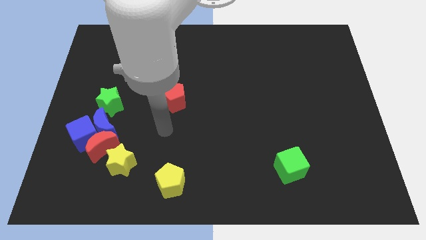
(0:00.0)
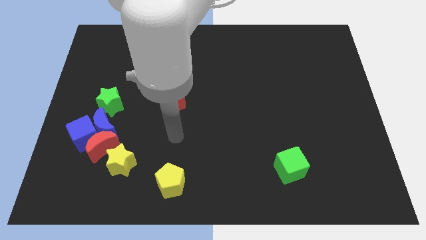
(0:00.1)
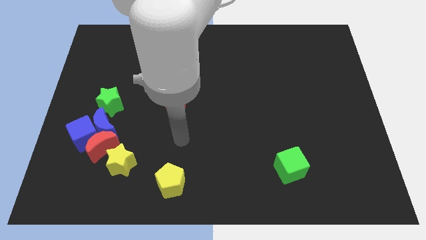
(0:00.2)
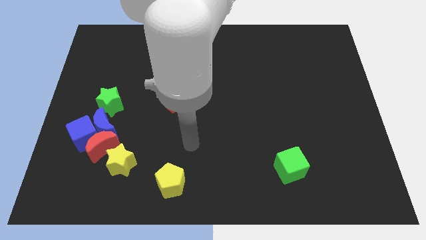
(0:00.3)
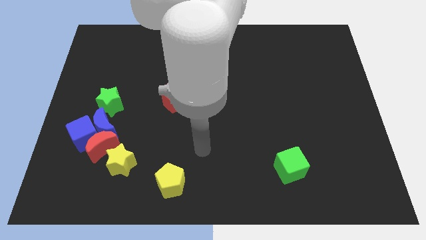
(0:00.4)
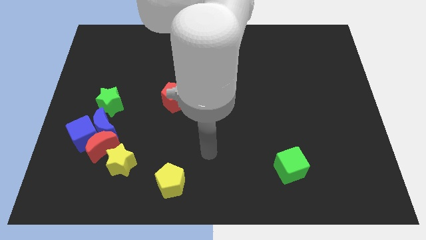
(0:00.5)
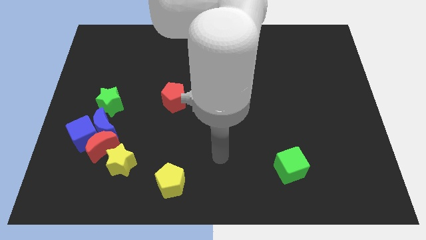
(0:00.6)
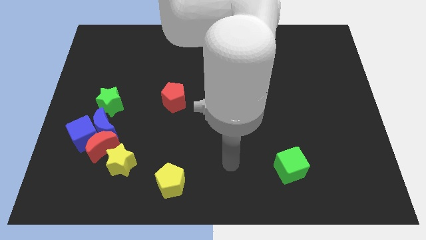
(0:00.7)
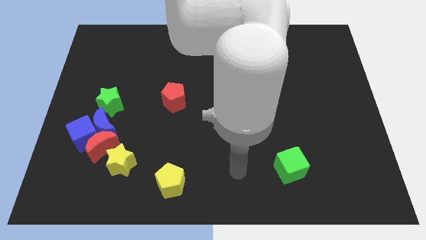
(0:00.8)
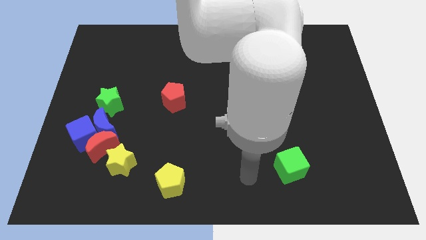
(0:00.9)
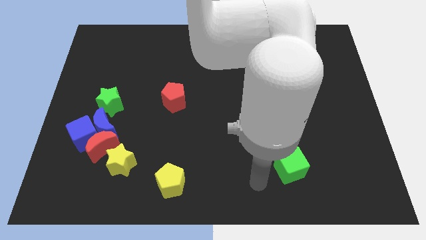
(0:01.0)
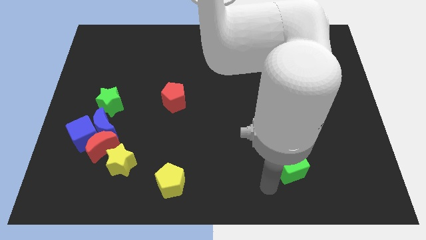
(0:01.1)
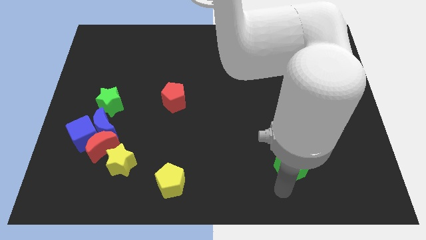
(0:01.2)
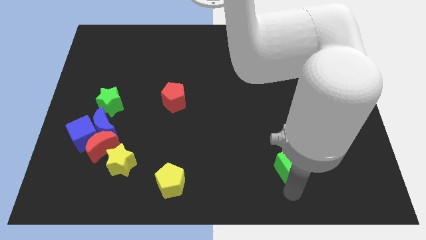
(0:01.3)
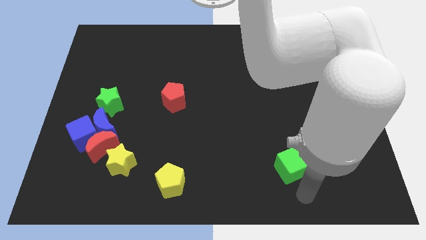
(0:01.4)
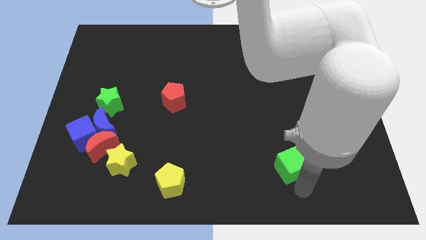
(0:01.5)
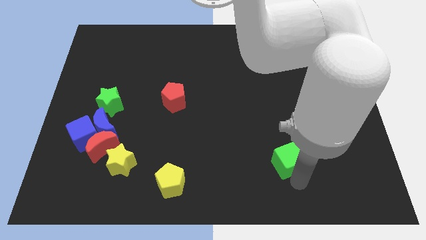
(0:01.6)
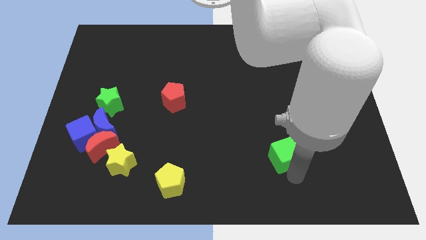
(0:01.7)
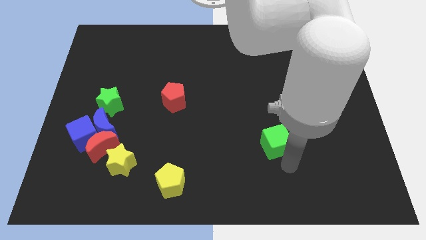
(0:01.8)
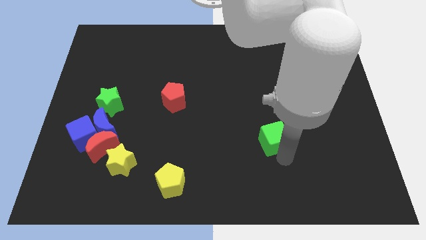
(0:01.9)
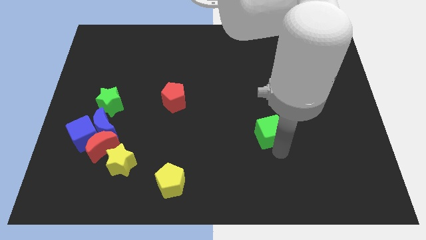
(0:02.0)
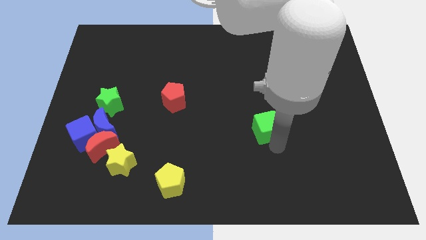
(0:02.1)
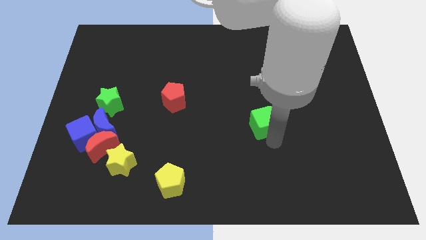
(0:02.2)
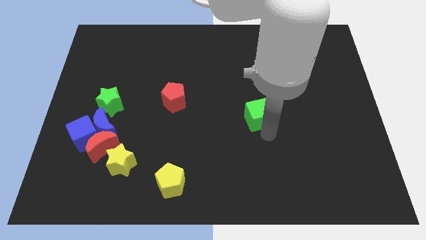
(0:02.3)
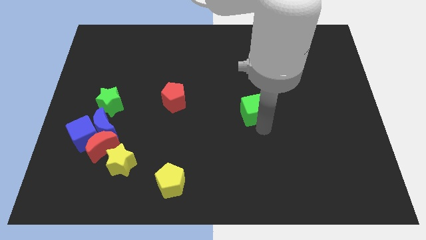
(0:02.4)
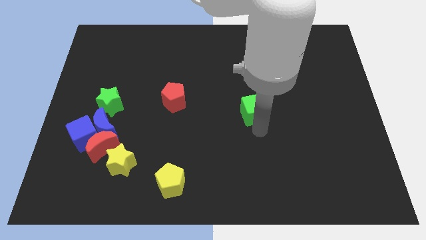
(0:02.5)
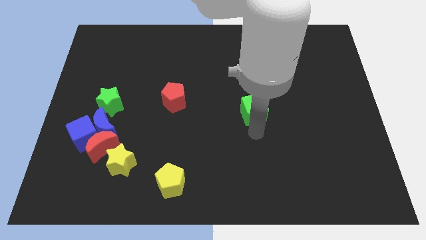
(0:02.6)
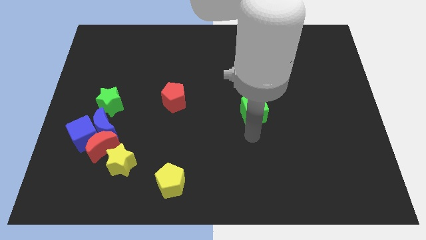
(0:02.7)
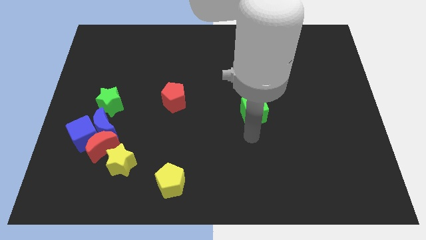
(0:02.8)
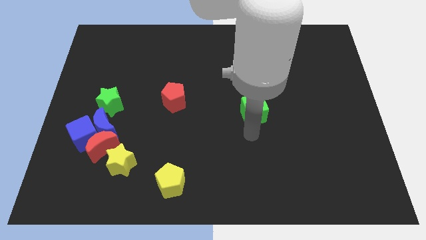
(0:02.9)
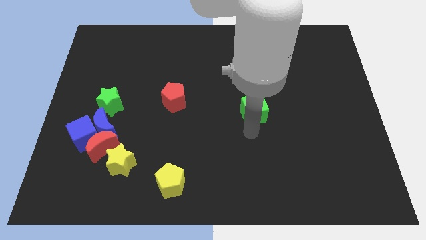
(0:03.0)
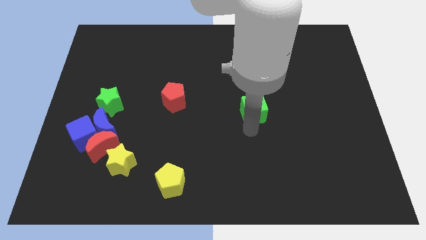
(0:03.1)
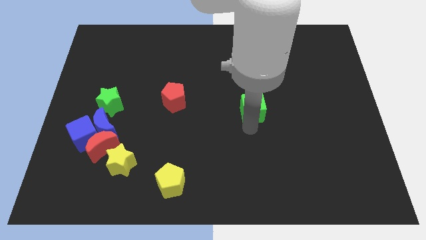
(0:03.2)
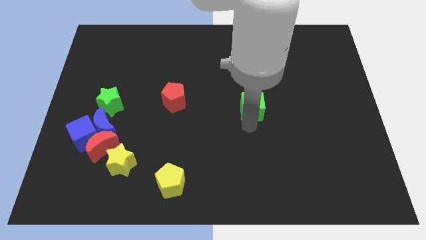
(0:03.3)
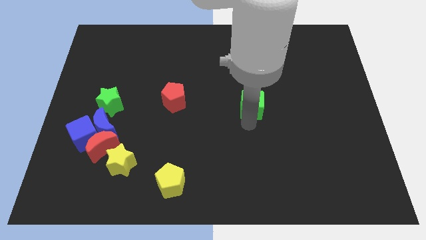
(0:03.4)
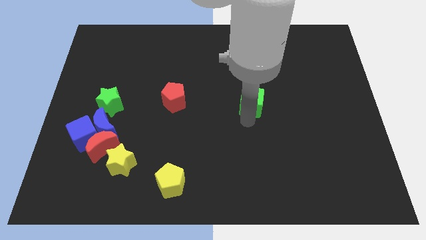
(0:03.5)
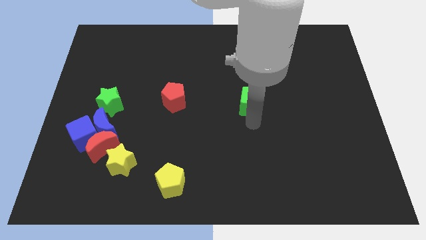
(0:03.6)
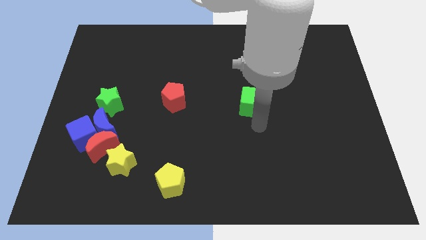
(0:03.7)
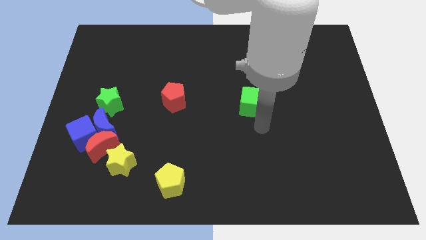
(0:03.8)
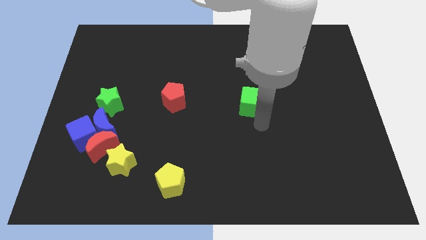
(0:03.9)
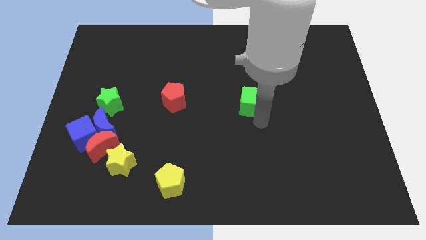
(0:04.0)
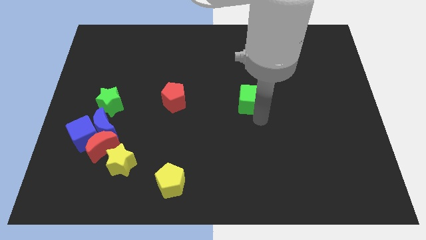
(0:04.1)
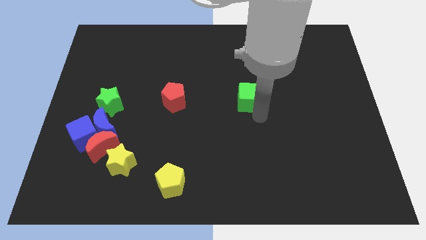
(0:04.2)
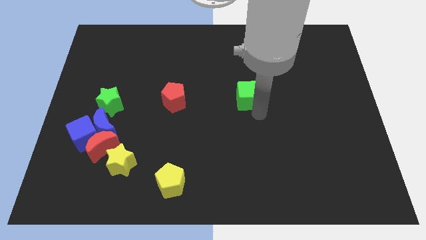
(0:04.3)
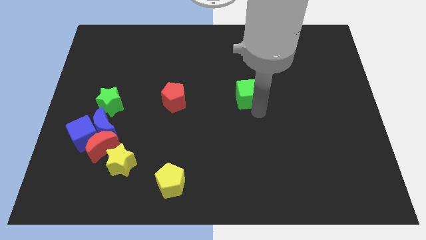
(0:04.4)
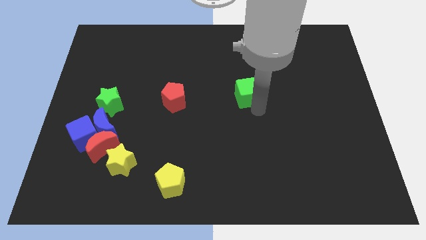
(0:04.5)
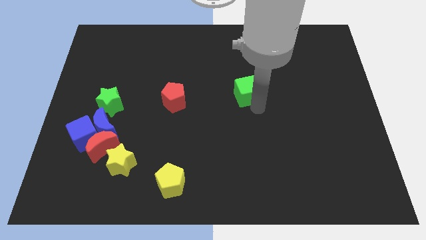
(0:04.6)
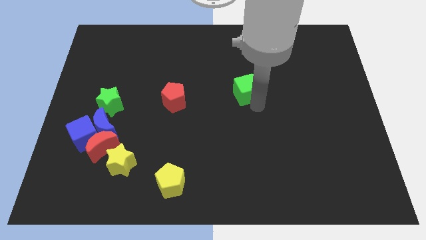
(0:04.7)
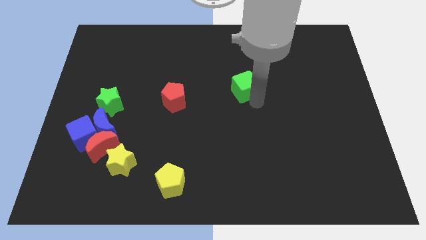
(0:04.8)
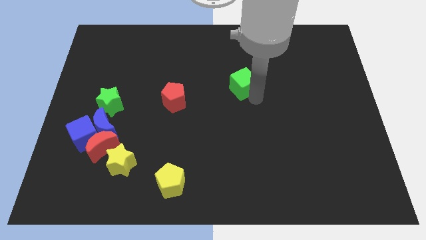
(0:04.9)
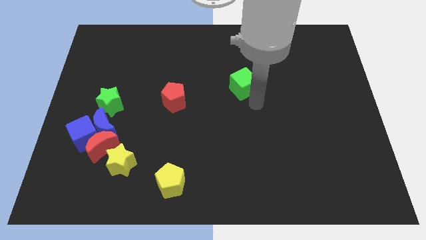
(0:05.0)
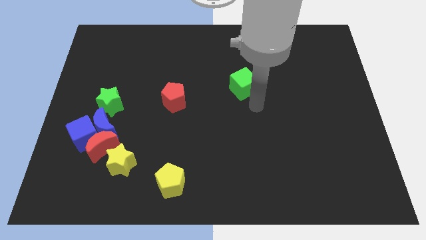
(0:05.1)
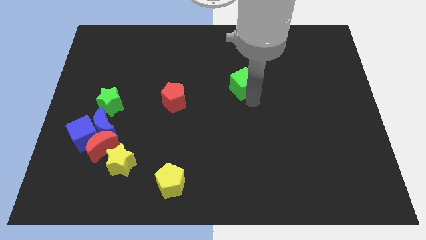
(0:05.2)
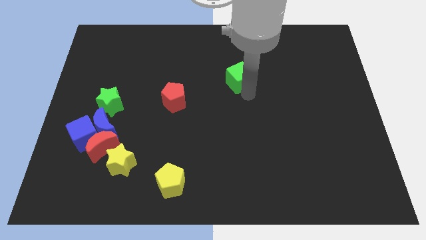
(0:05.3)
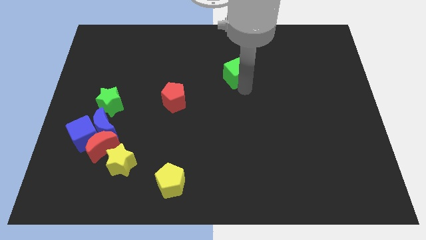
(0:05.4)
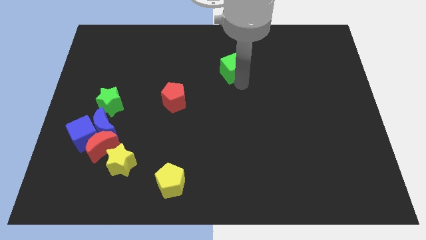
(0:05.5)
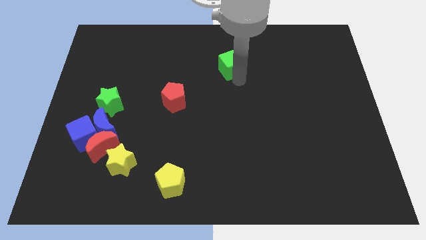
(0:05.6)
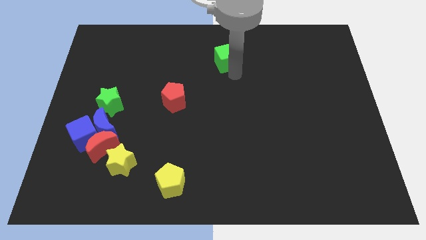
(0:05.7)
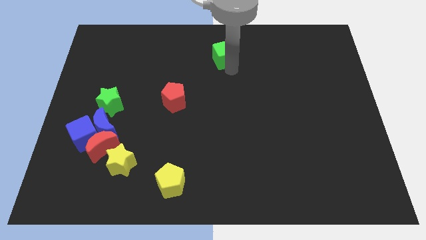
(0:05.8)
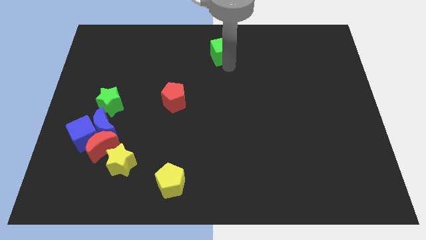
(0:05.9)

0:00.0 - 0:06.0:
move the green cube to the towards your base

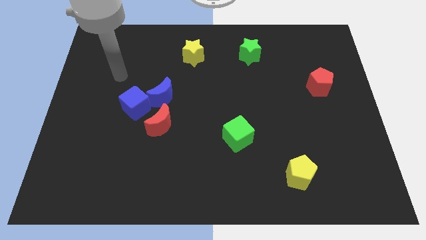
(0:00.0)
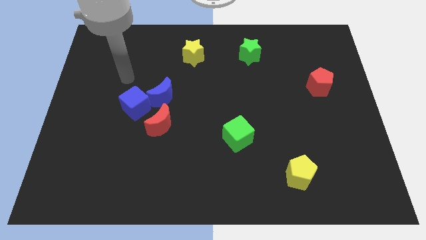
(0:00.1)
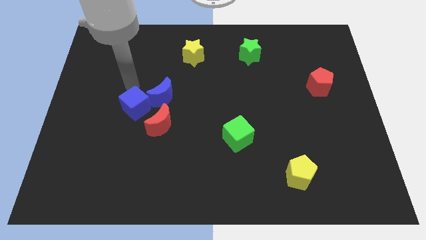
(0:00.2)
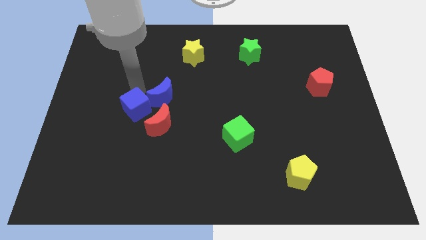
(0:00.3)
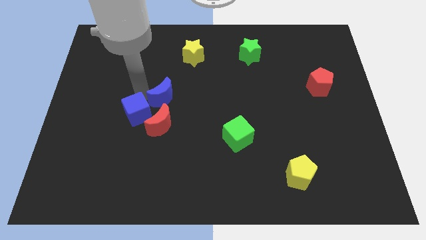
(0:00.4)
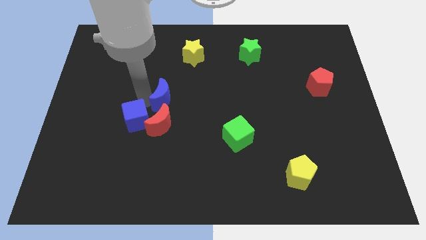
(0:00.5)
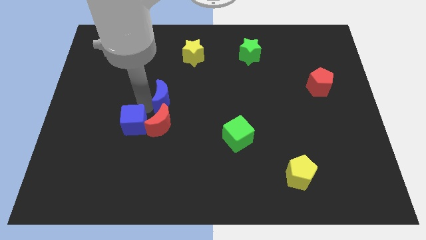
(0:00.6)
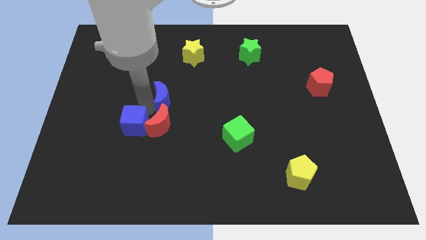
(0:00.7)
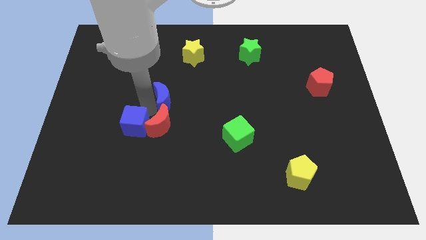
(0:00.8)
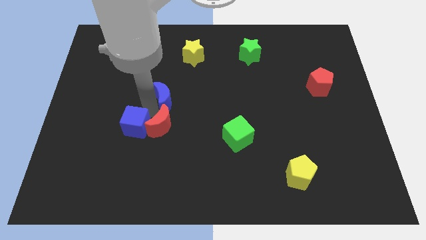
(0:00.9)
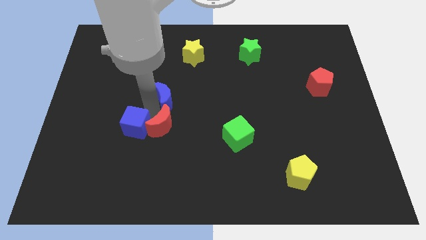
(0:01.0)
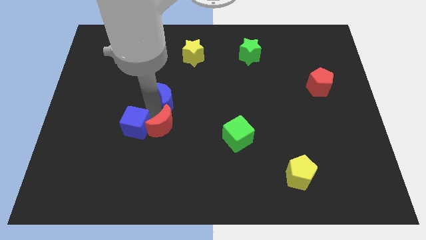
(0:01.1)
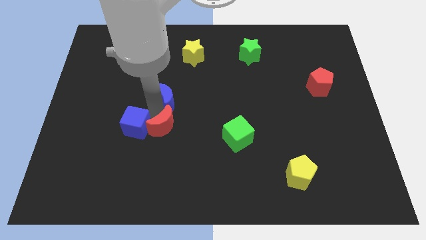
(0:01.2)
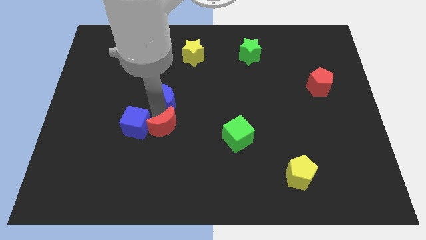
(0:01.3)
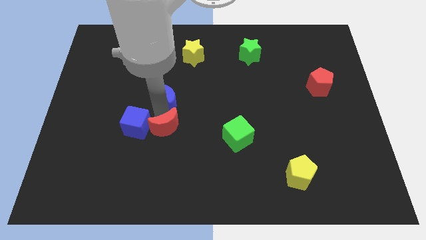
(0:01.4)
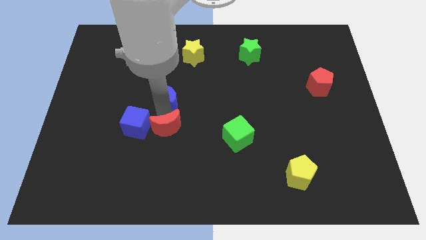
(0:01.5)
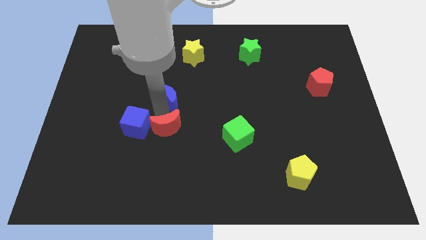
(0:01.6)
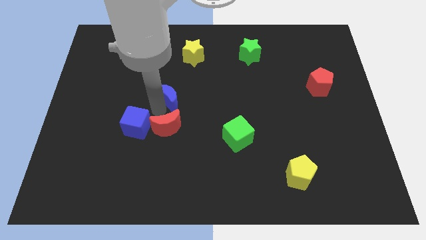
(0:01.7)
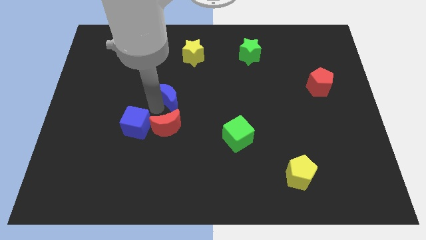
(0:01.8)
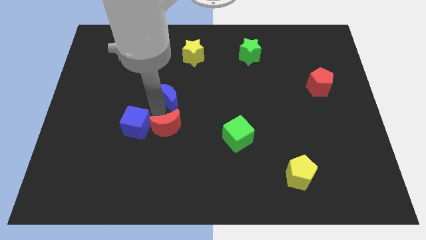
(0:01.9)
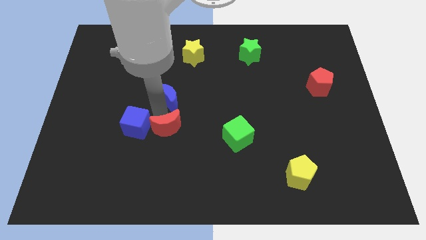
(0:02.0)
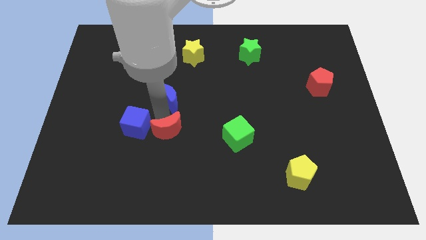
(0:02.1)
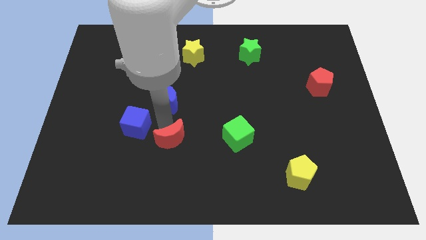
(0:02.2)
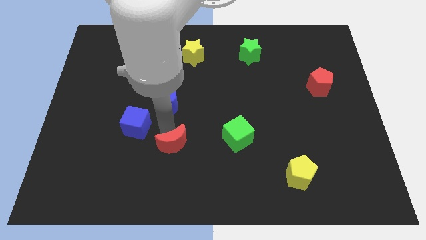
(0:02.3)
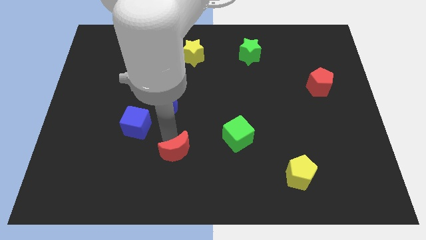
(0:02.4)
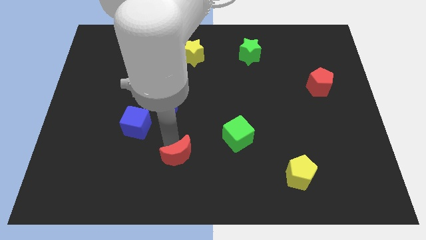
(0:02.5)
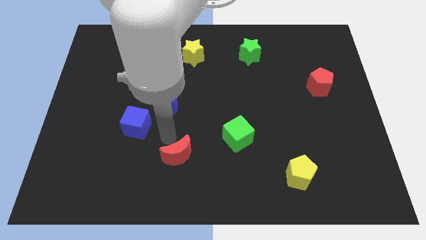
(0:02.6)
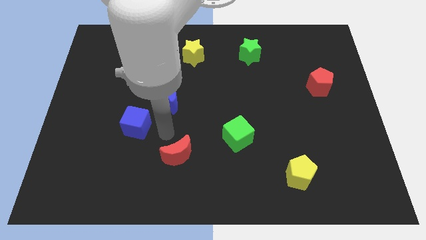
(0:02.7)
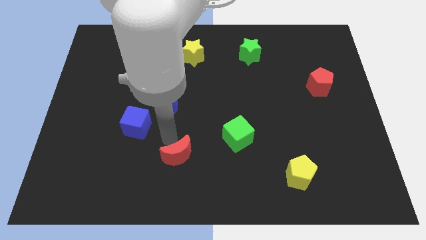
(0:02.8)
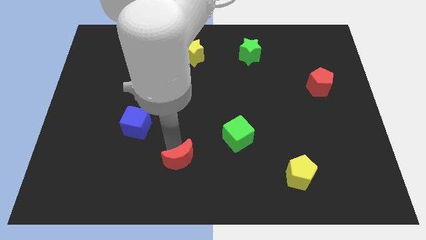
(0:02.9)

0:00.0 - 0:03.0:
slide the red moon to the bottom side
